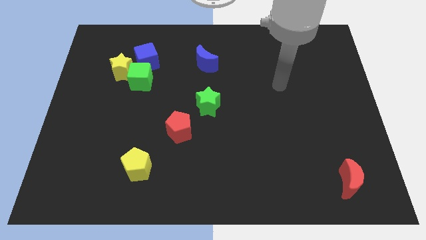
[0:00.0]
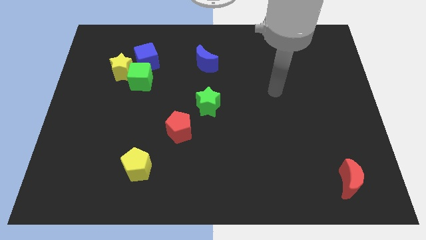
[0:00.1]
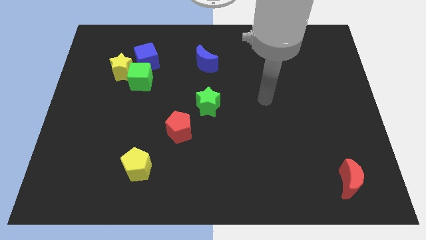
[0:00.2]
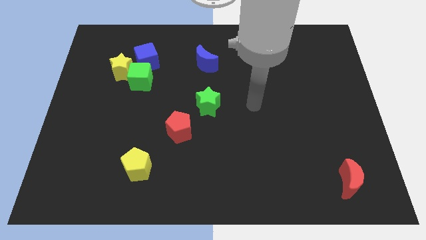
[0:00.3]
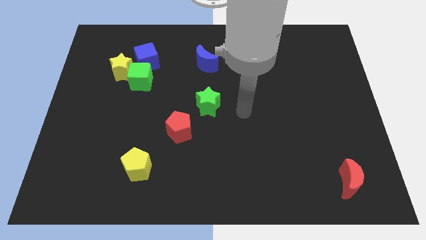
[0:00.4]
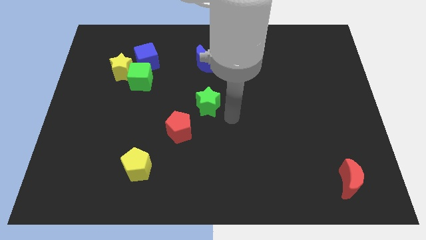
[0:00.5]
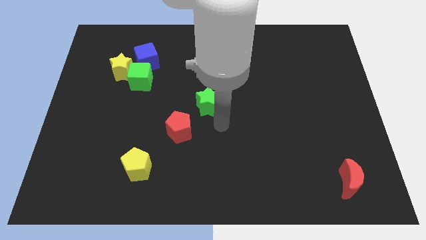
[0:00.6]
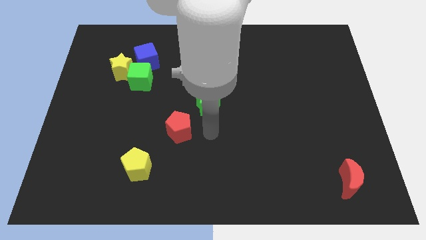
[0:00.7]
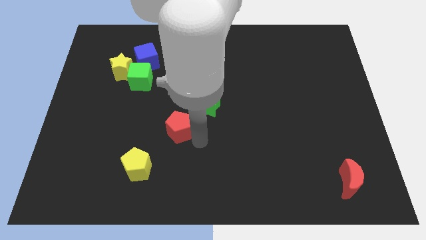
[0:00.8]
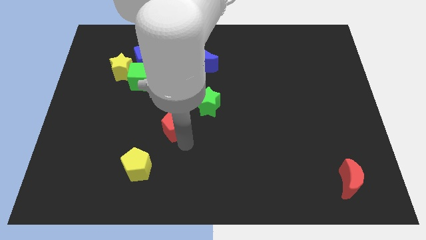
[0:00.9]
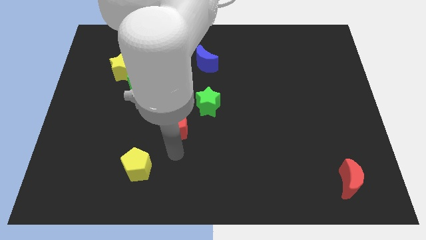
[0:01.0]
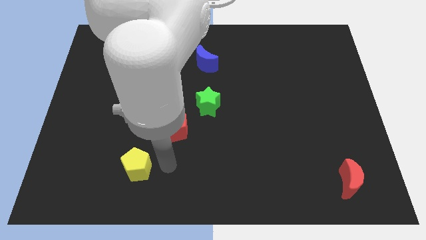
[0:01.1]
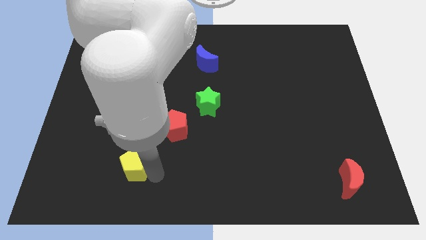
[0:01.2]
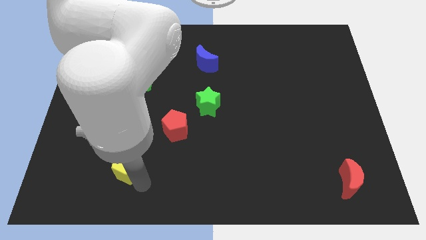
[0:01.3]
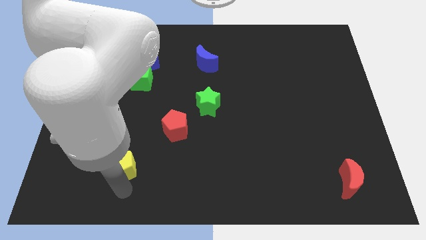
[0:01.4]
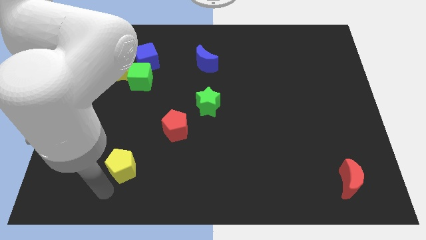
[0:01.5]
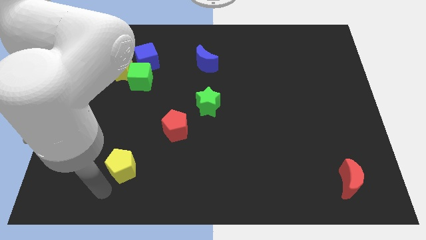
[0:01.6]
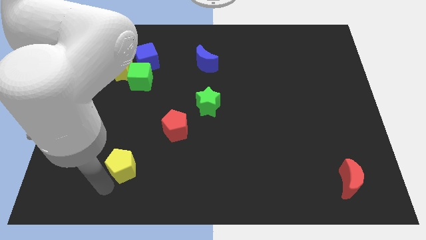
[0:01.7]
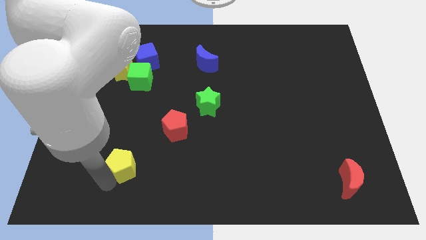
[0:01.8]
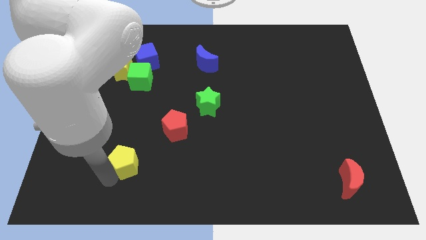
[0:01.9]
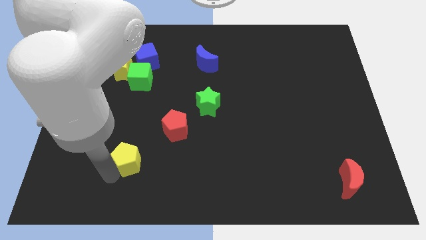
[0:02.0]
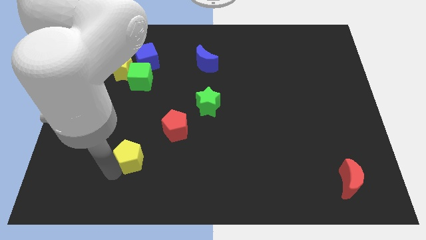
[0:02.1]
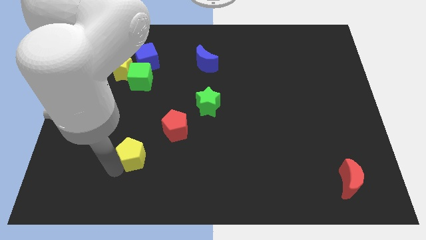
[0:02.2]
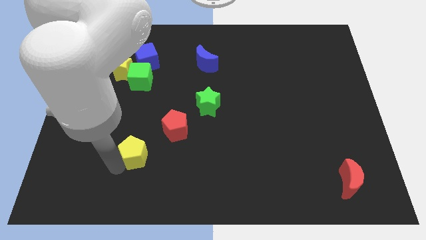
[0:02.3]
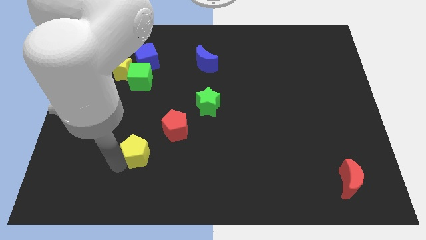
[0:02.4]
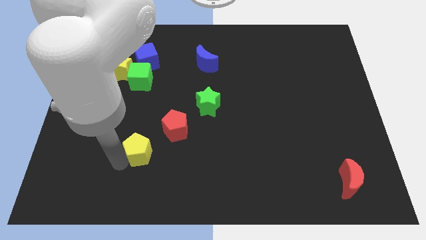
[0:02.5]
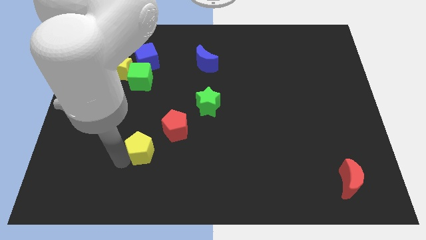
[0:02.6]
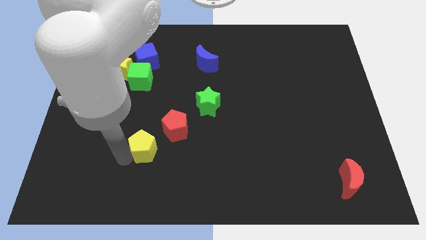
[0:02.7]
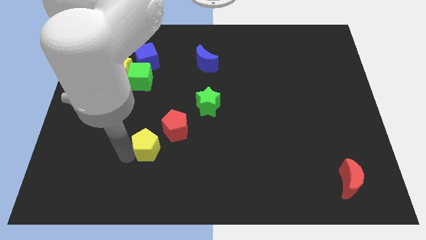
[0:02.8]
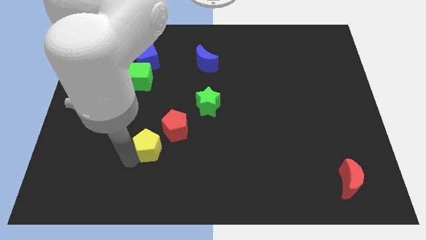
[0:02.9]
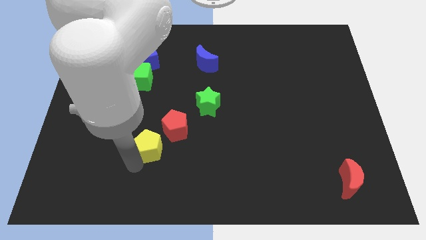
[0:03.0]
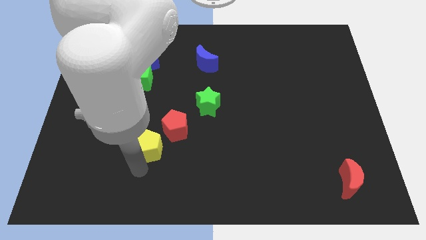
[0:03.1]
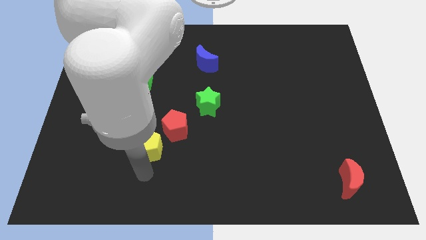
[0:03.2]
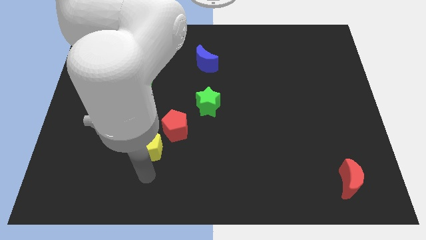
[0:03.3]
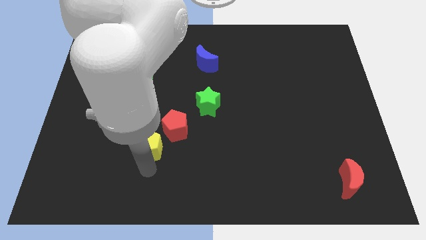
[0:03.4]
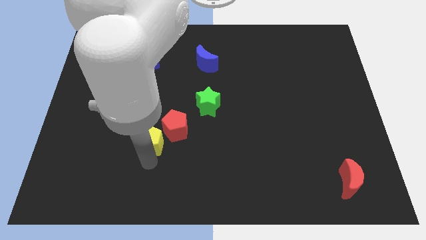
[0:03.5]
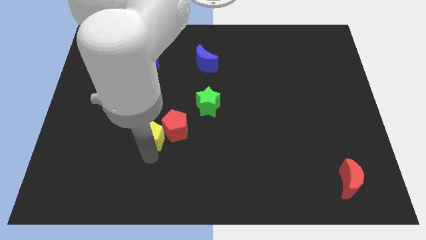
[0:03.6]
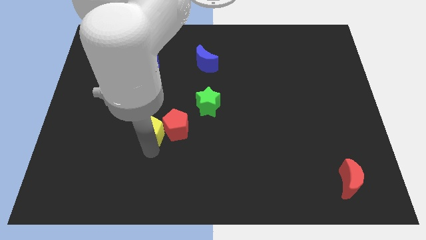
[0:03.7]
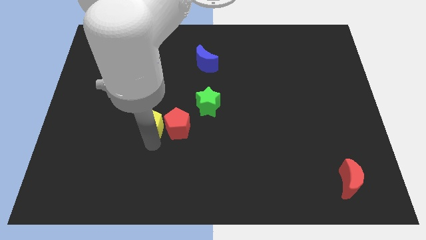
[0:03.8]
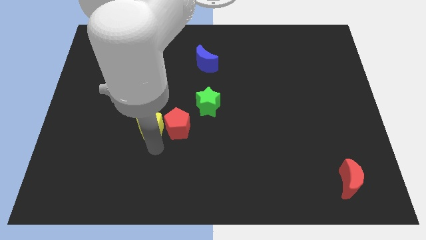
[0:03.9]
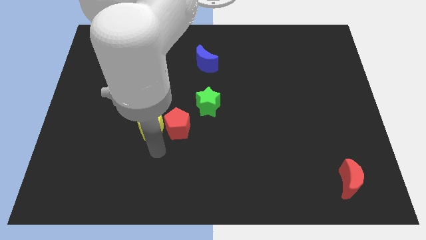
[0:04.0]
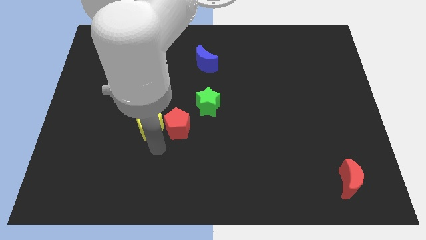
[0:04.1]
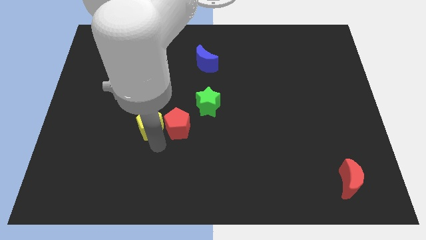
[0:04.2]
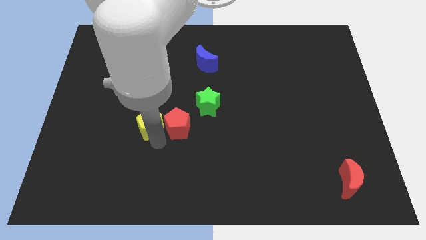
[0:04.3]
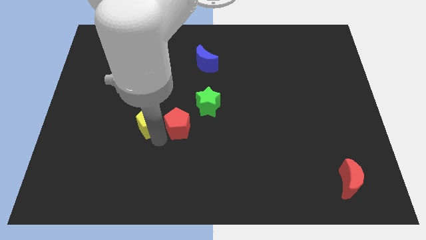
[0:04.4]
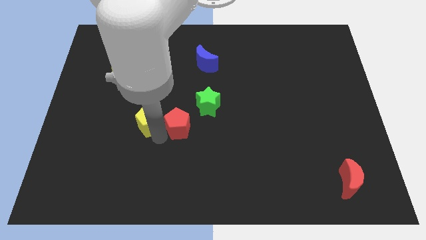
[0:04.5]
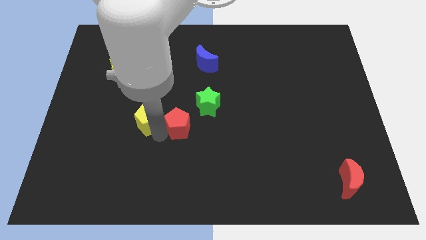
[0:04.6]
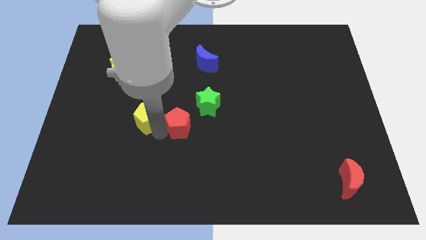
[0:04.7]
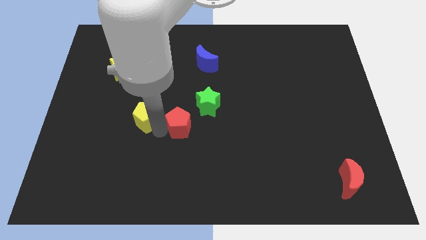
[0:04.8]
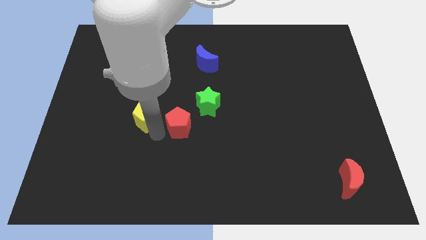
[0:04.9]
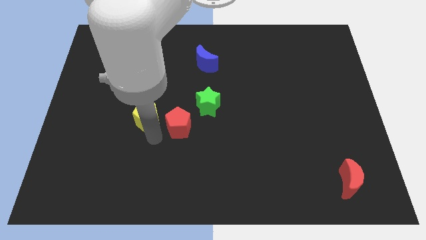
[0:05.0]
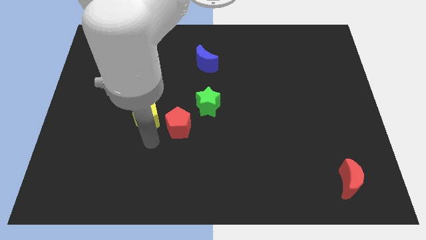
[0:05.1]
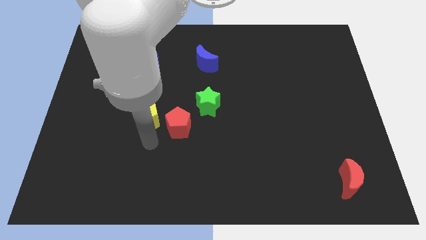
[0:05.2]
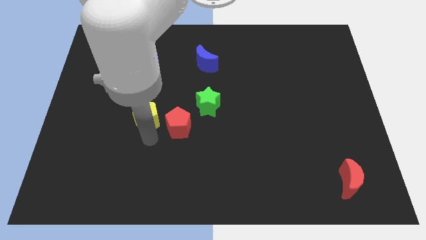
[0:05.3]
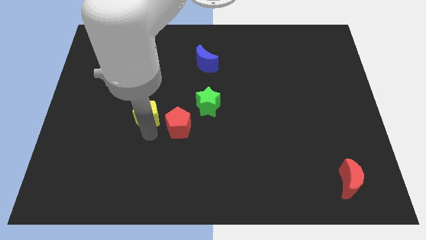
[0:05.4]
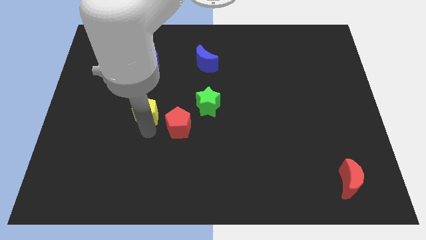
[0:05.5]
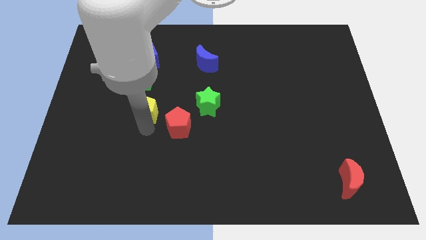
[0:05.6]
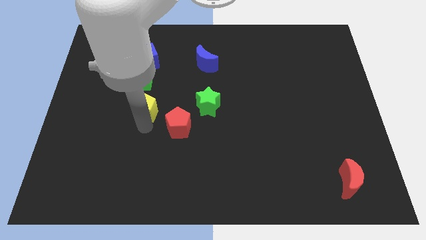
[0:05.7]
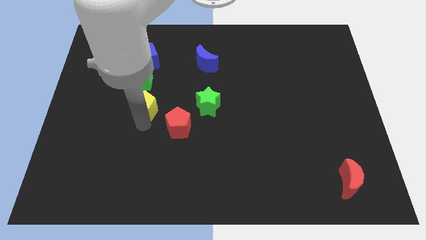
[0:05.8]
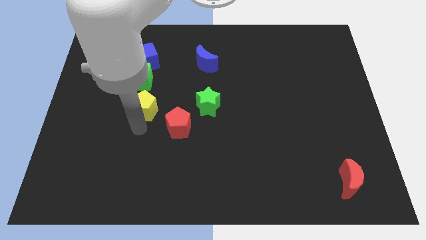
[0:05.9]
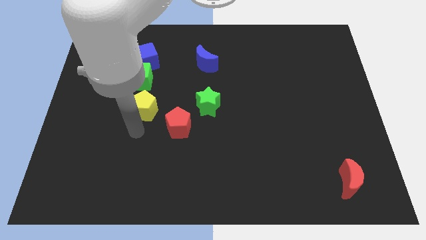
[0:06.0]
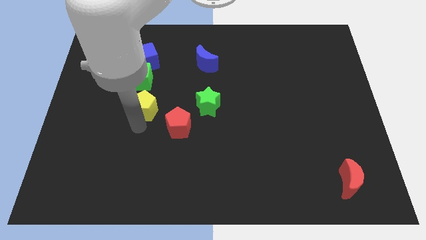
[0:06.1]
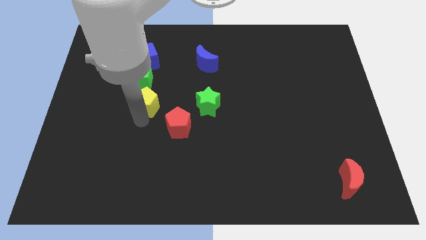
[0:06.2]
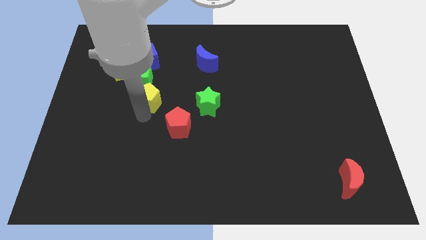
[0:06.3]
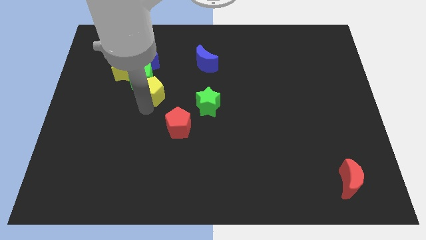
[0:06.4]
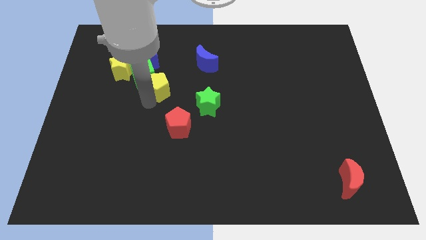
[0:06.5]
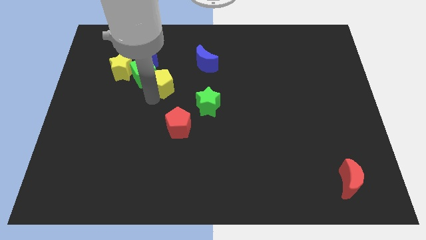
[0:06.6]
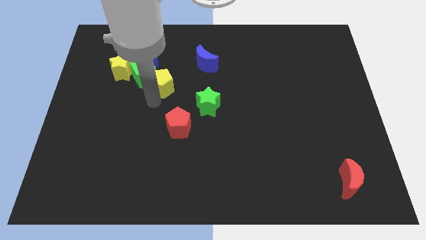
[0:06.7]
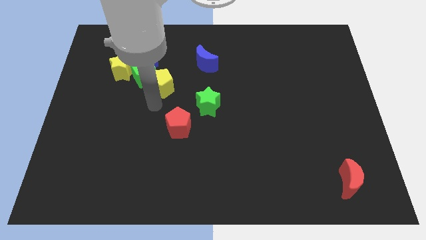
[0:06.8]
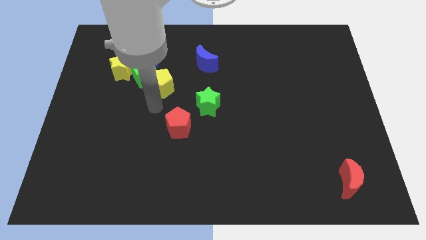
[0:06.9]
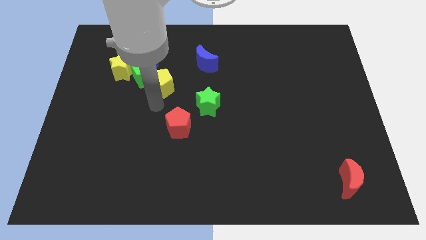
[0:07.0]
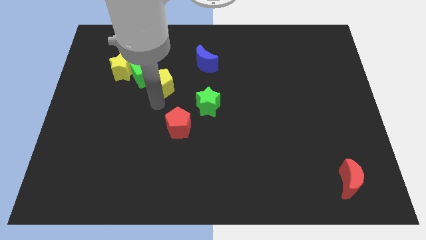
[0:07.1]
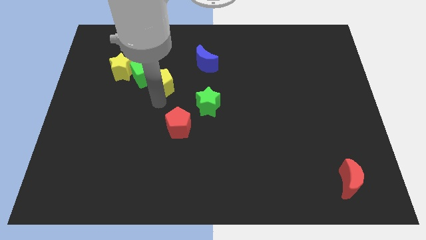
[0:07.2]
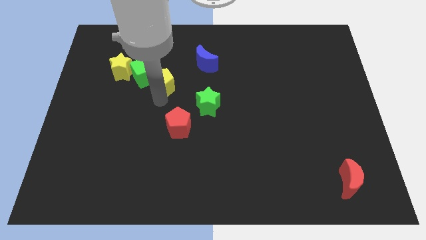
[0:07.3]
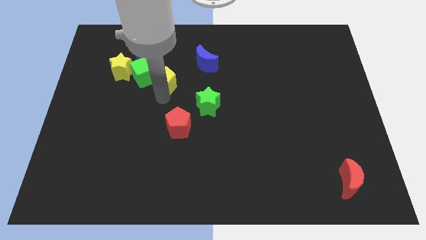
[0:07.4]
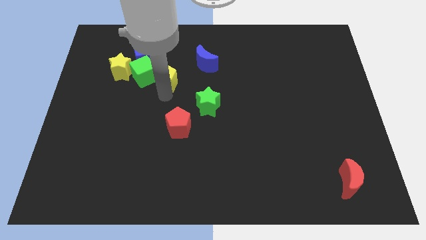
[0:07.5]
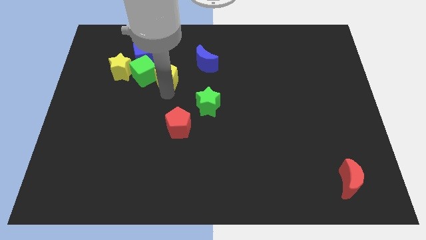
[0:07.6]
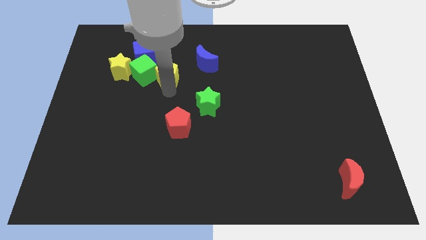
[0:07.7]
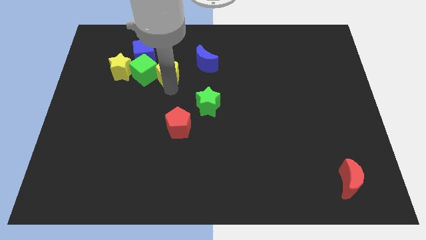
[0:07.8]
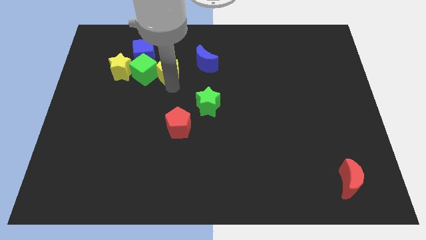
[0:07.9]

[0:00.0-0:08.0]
push the yellow pentagon diagonally up and to the right of the green cube

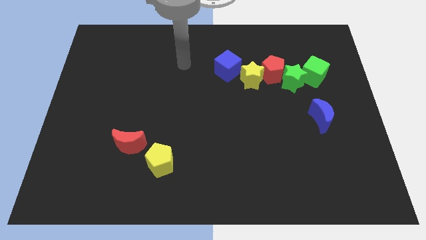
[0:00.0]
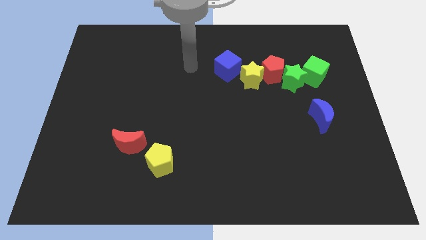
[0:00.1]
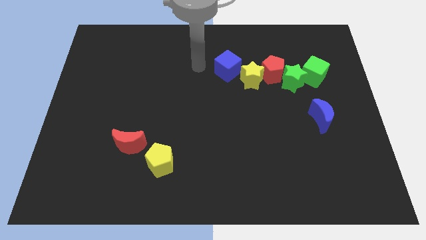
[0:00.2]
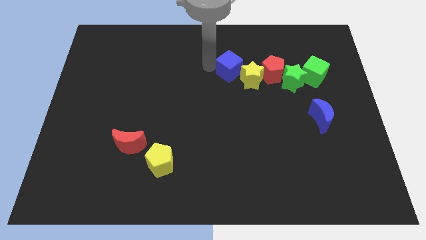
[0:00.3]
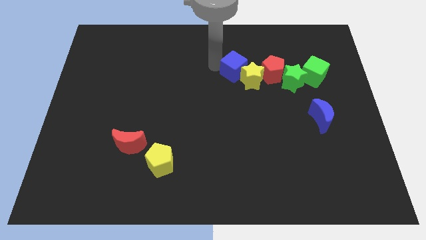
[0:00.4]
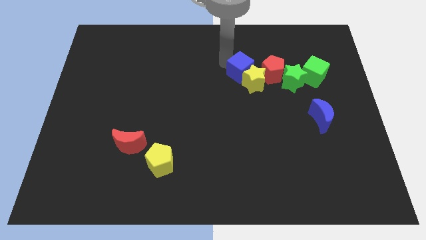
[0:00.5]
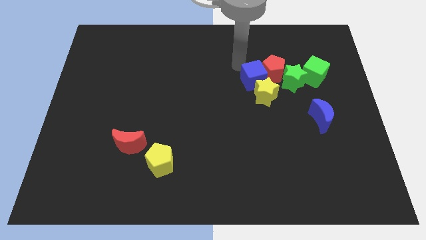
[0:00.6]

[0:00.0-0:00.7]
move the yellow star to the bottom side of the red pentagon
